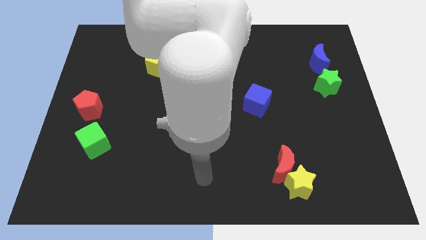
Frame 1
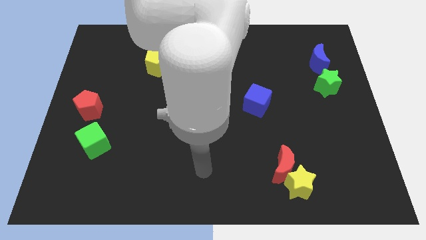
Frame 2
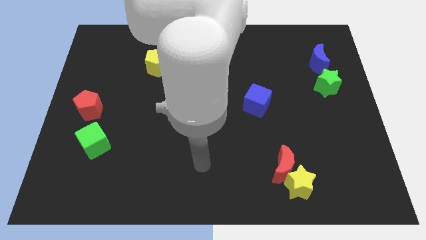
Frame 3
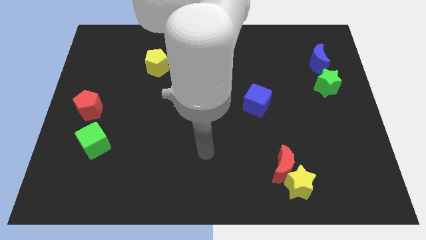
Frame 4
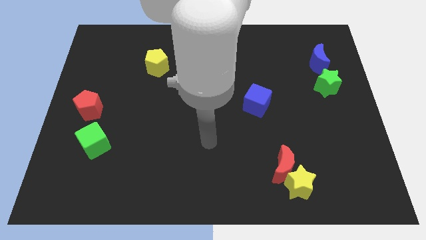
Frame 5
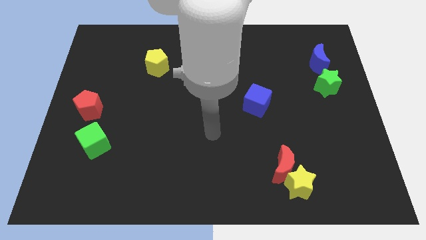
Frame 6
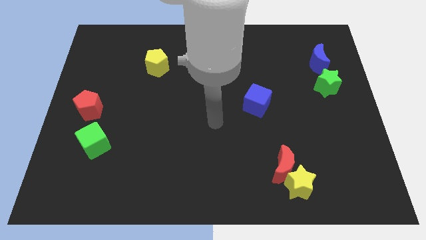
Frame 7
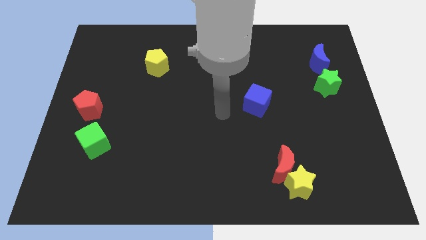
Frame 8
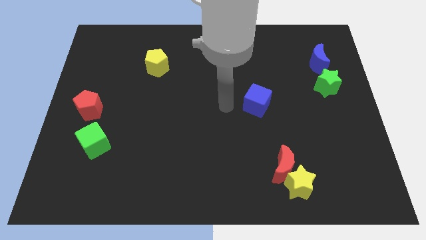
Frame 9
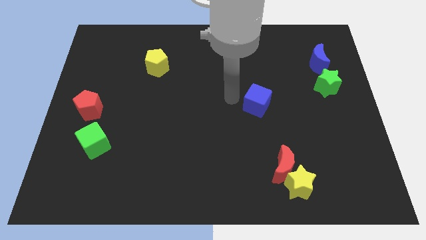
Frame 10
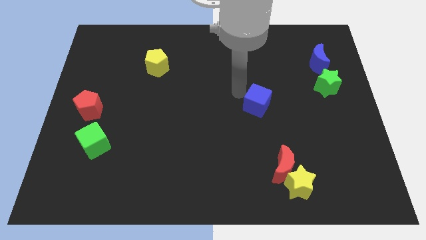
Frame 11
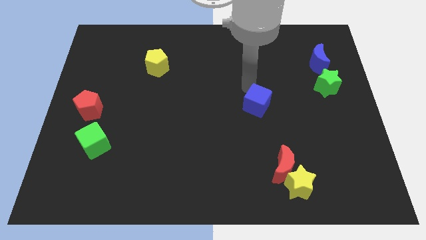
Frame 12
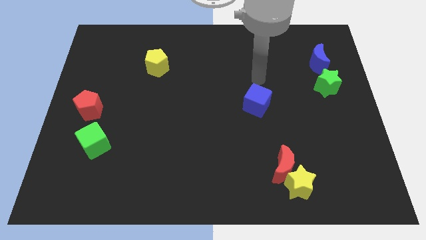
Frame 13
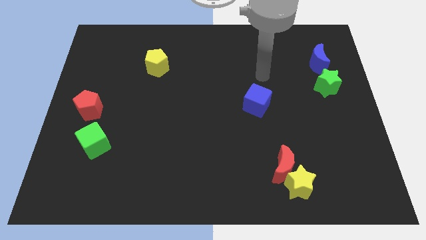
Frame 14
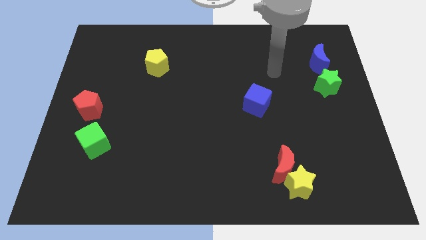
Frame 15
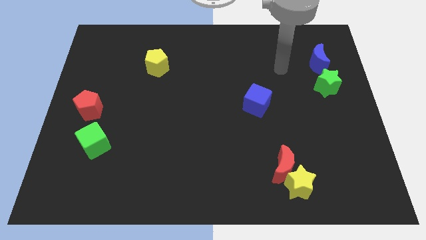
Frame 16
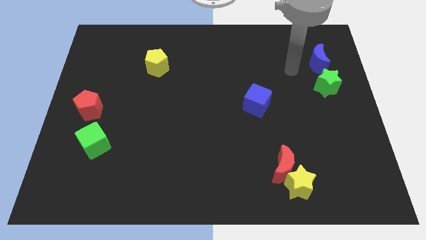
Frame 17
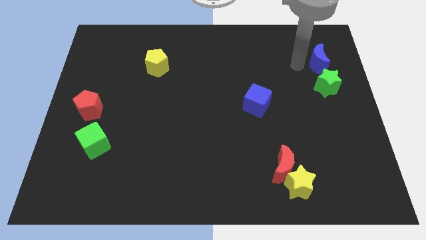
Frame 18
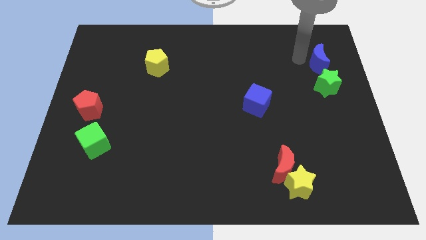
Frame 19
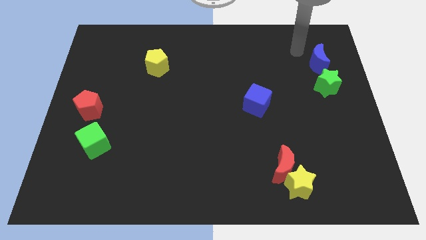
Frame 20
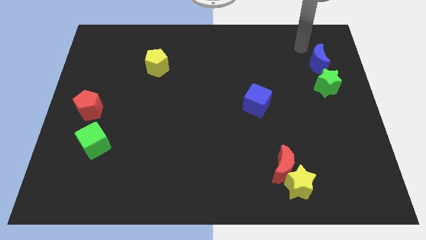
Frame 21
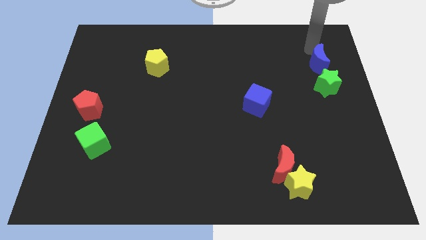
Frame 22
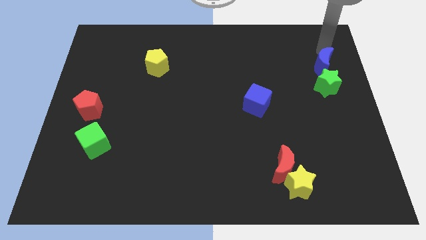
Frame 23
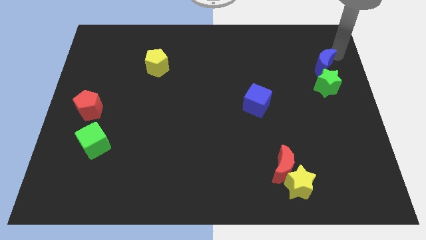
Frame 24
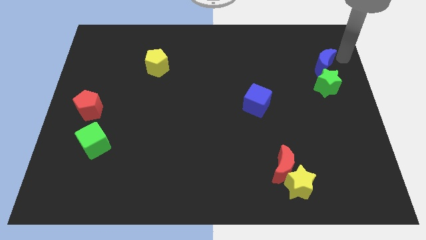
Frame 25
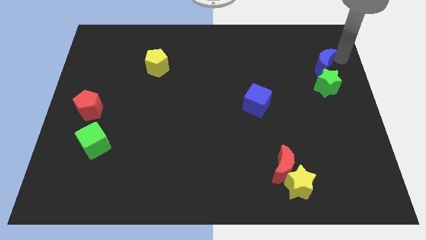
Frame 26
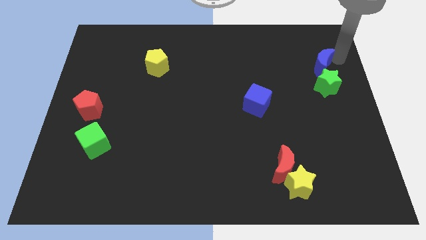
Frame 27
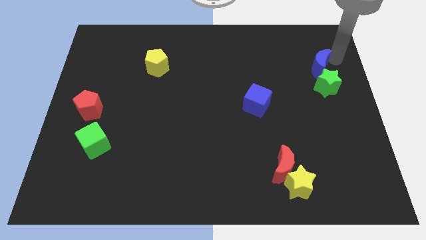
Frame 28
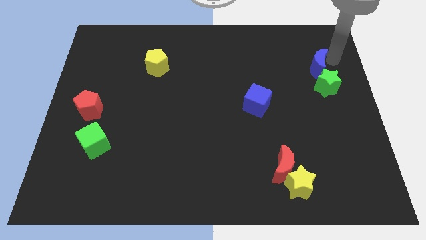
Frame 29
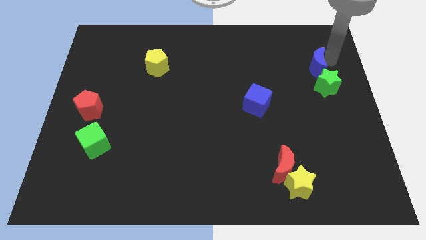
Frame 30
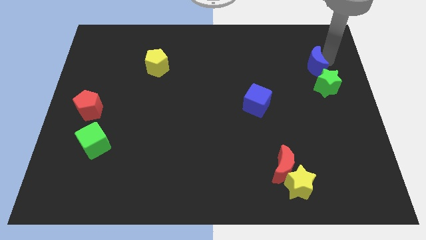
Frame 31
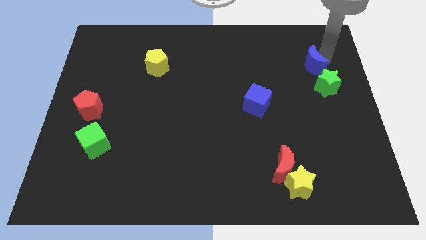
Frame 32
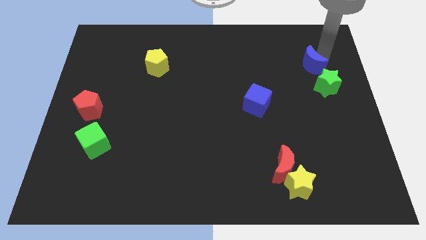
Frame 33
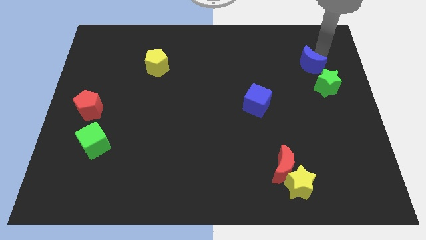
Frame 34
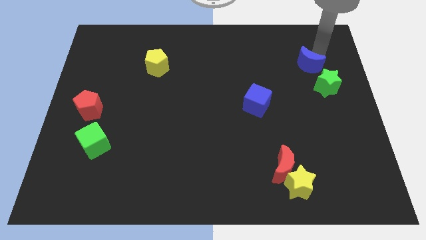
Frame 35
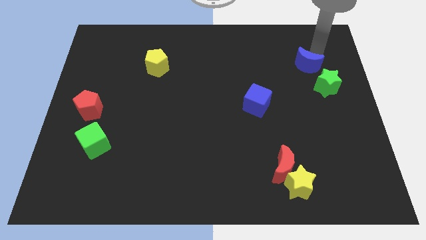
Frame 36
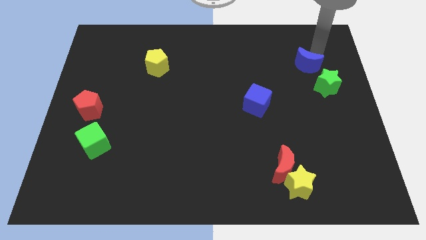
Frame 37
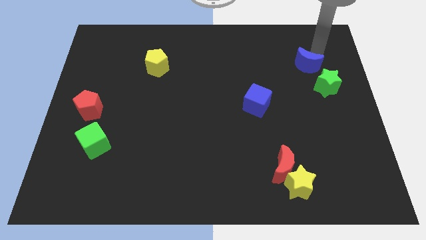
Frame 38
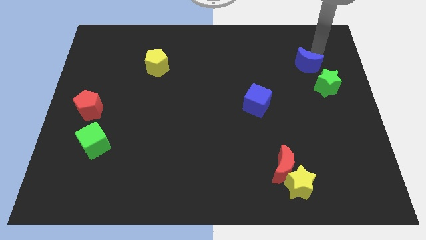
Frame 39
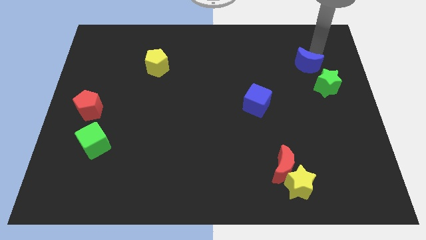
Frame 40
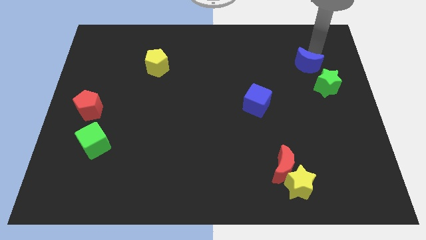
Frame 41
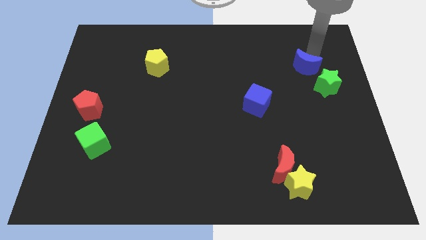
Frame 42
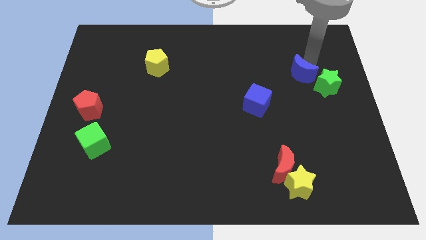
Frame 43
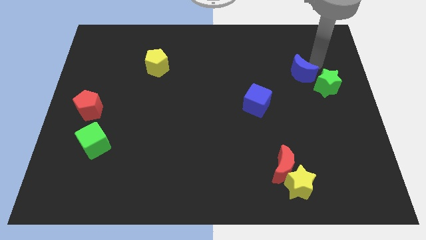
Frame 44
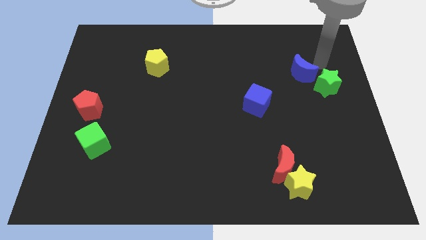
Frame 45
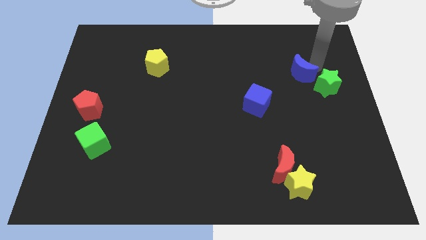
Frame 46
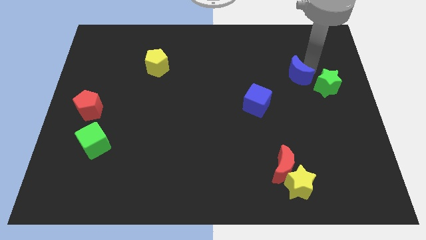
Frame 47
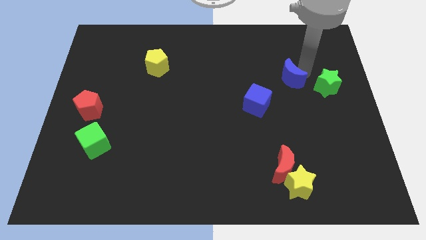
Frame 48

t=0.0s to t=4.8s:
put the blue moon diagonally up and to the right of the blue cube

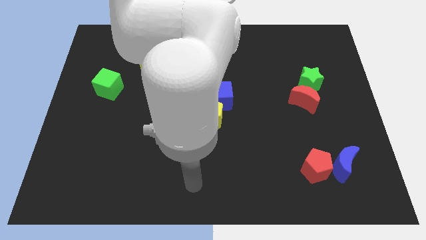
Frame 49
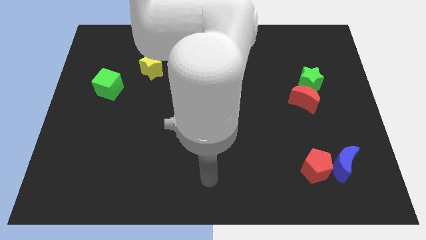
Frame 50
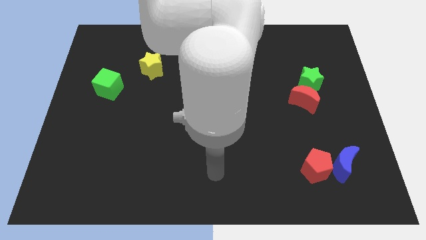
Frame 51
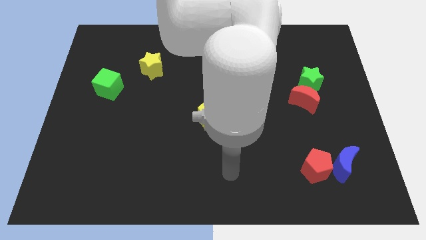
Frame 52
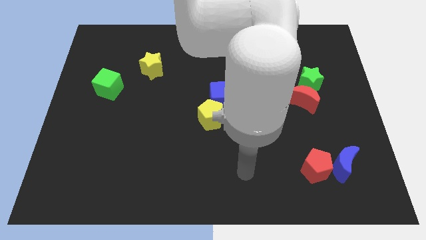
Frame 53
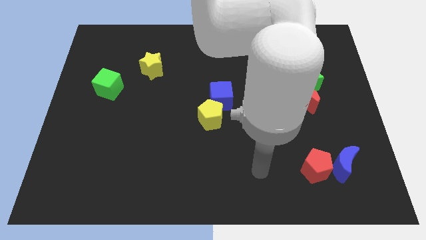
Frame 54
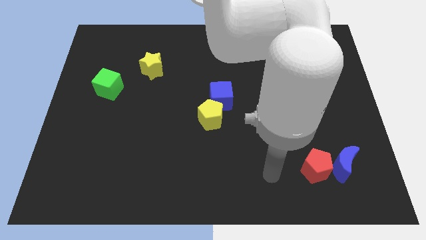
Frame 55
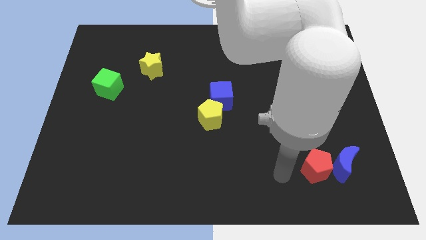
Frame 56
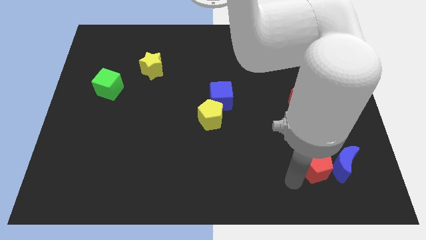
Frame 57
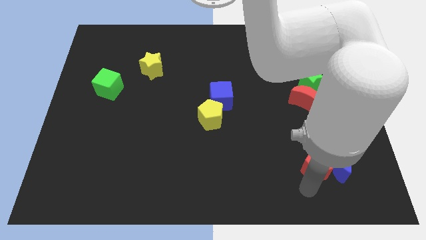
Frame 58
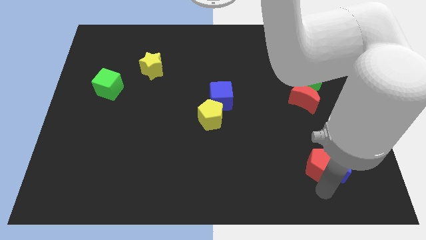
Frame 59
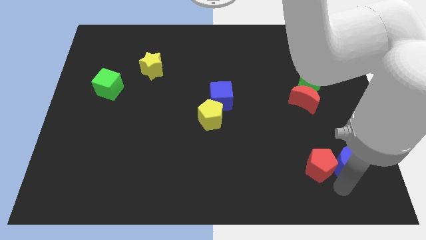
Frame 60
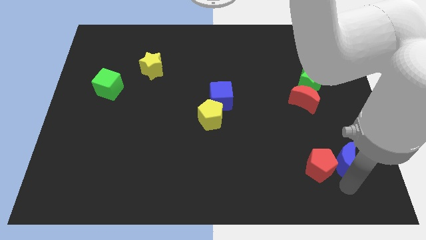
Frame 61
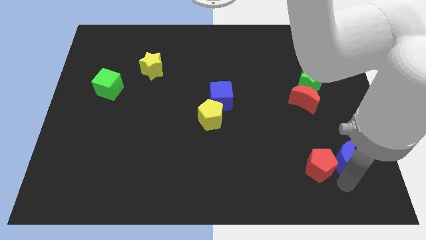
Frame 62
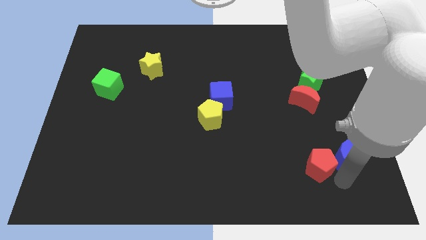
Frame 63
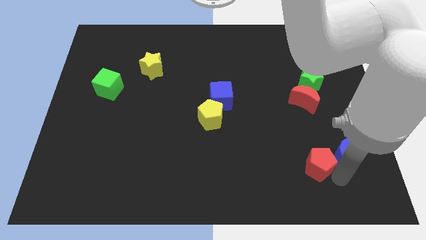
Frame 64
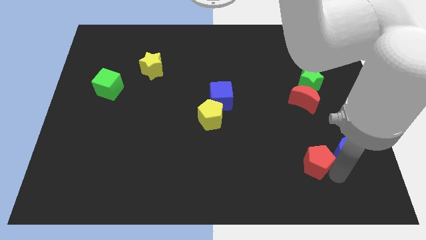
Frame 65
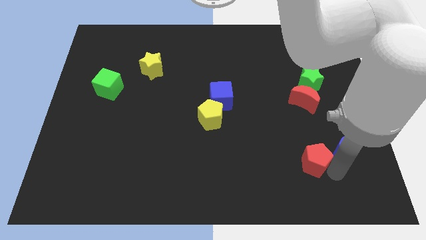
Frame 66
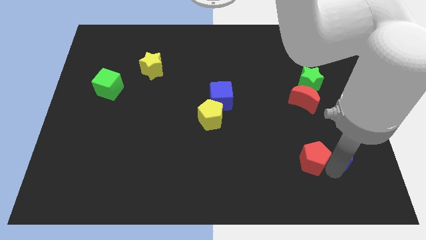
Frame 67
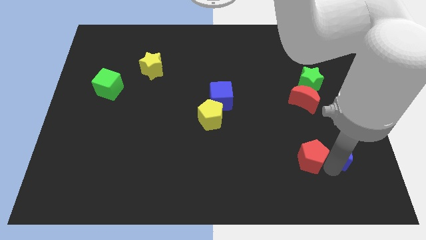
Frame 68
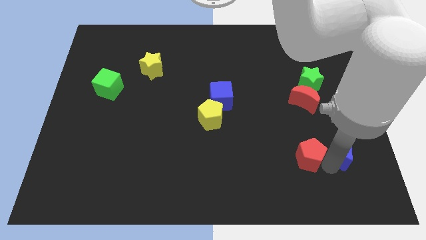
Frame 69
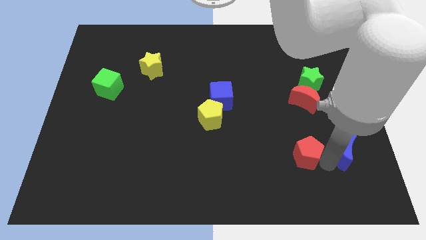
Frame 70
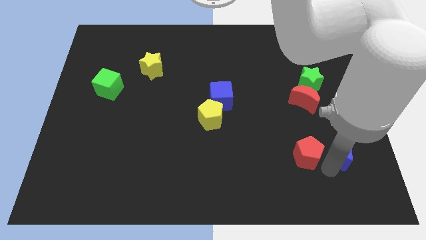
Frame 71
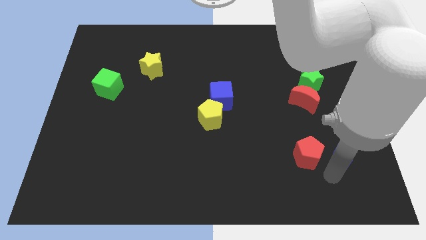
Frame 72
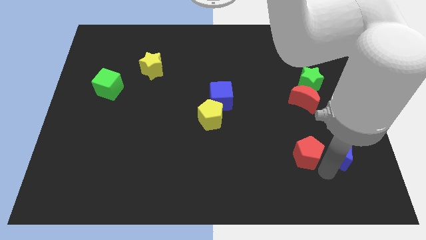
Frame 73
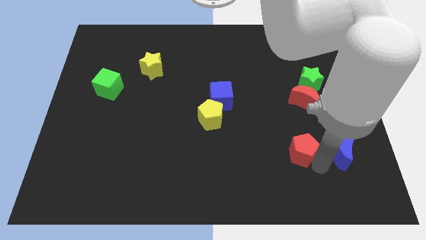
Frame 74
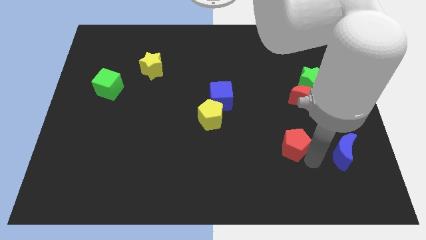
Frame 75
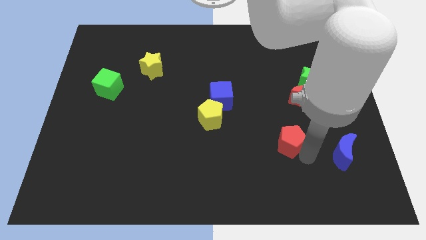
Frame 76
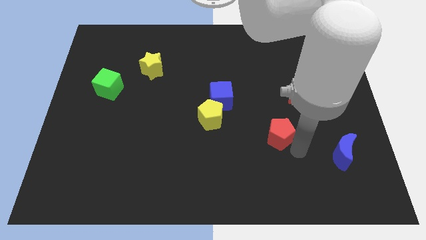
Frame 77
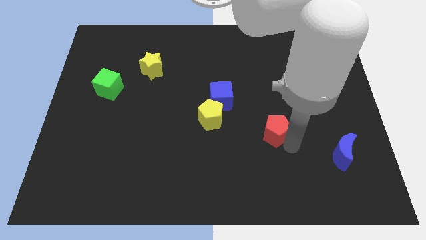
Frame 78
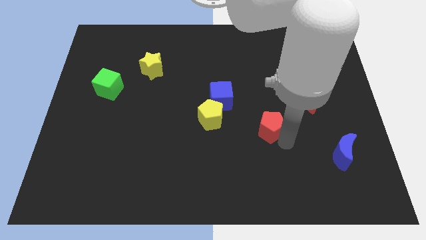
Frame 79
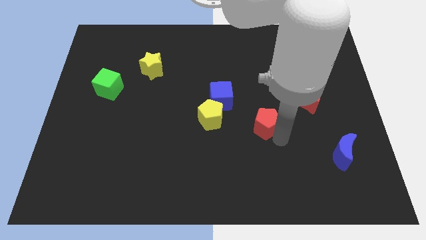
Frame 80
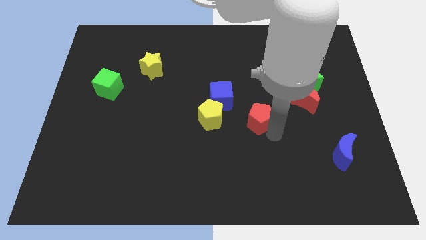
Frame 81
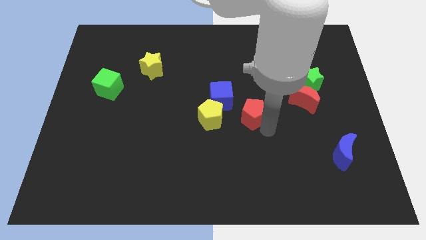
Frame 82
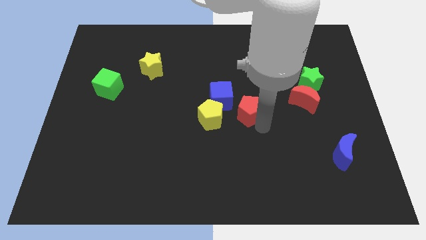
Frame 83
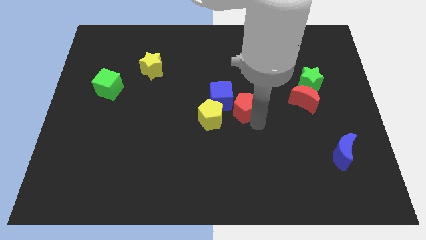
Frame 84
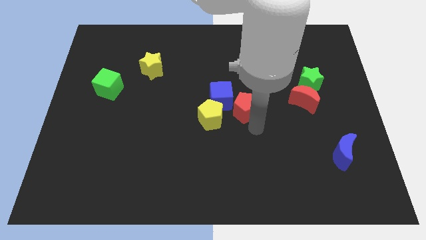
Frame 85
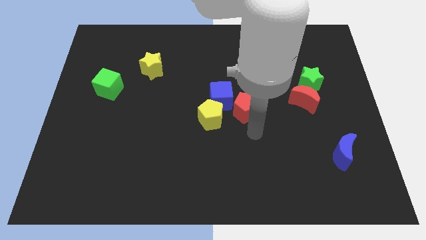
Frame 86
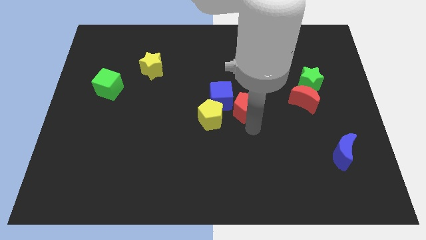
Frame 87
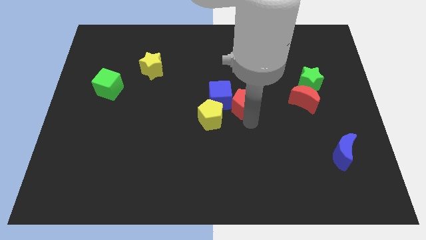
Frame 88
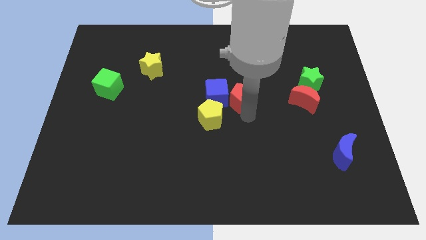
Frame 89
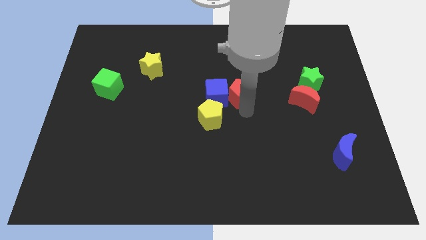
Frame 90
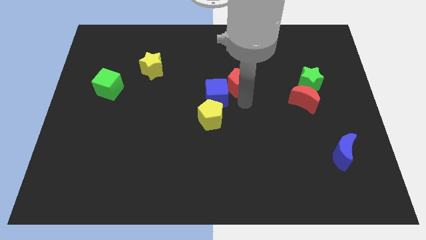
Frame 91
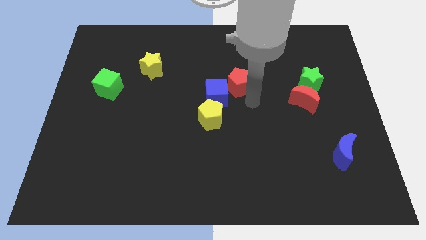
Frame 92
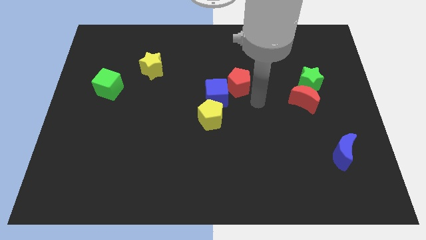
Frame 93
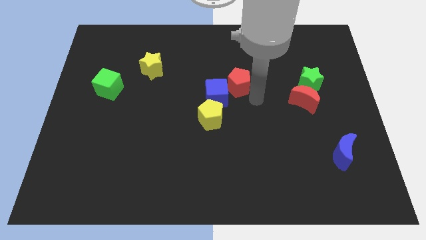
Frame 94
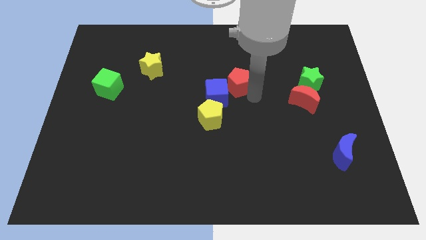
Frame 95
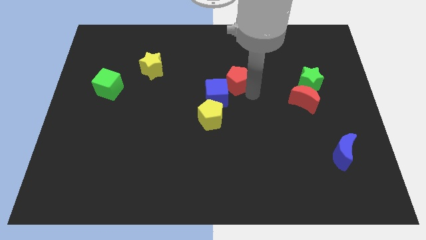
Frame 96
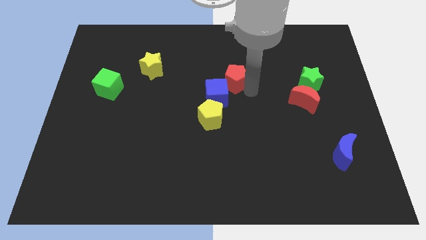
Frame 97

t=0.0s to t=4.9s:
move the red pentagon above the blue cube
